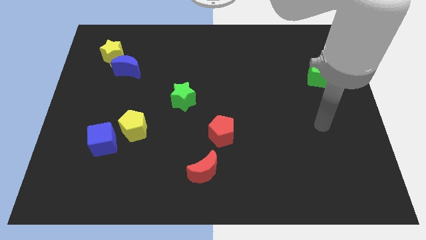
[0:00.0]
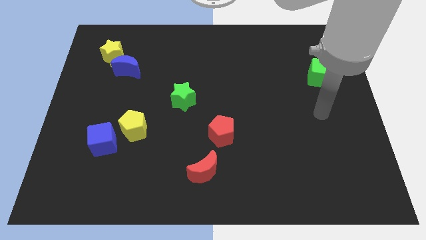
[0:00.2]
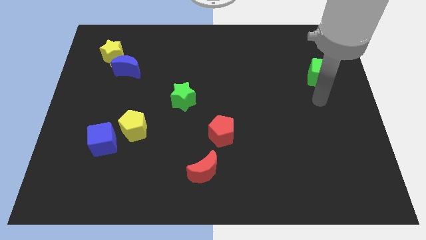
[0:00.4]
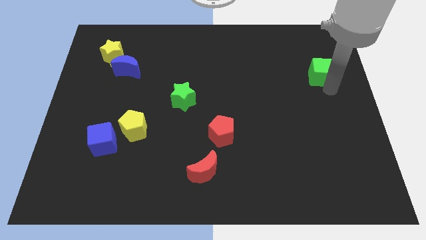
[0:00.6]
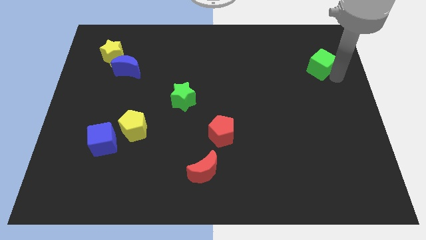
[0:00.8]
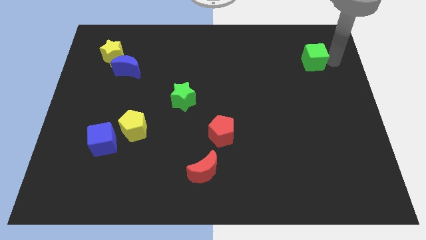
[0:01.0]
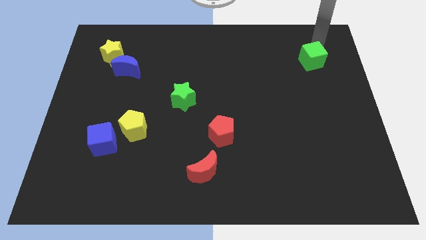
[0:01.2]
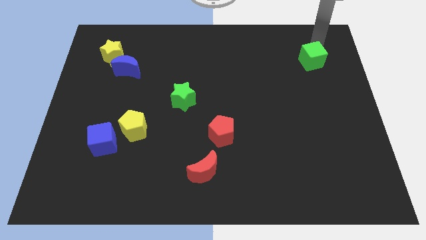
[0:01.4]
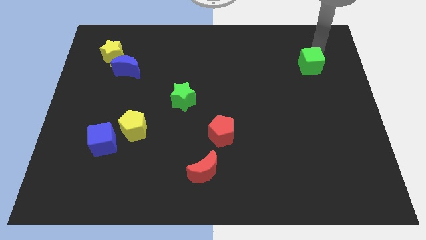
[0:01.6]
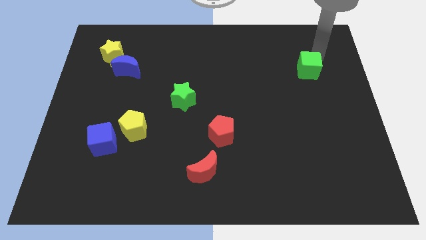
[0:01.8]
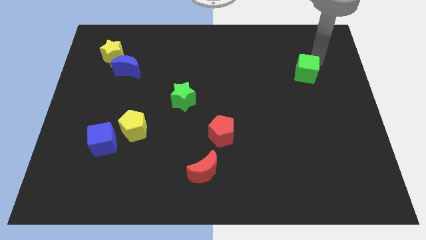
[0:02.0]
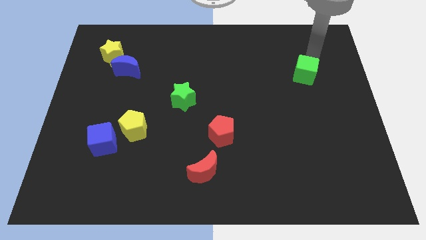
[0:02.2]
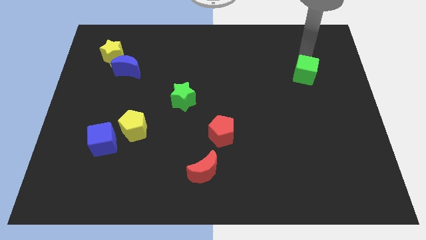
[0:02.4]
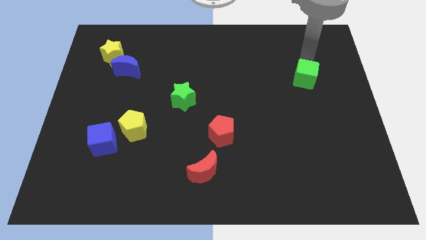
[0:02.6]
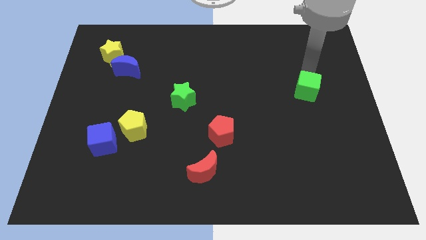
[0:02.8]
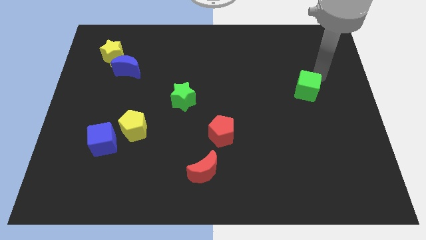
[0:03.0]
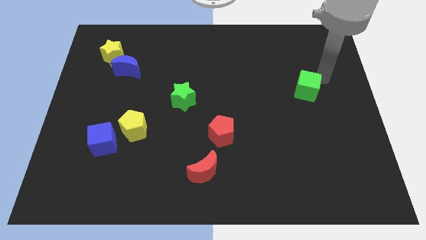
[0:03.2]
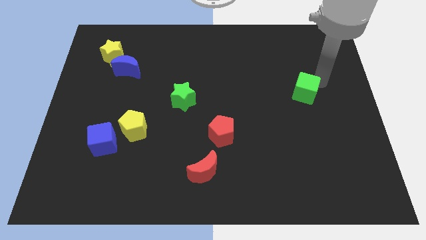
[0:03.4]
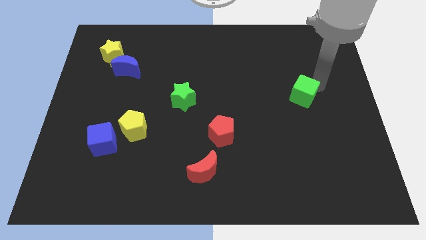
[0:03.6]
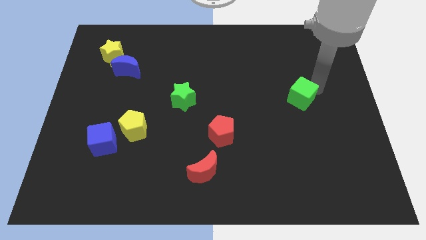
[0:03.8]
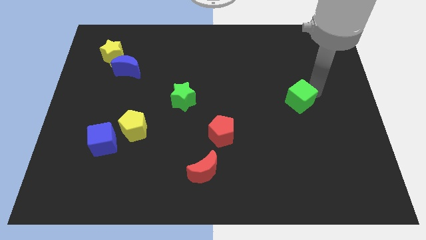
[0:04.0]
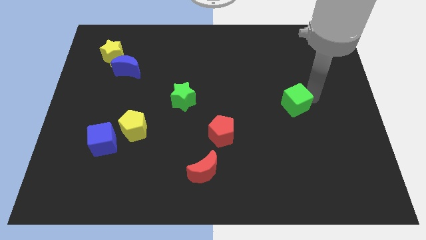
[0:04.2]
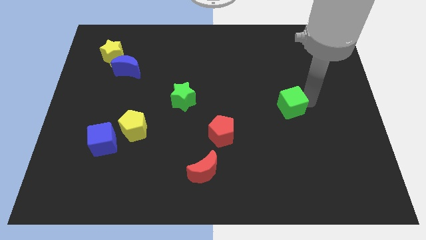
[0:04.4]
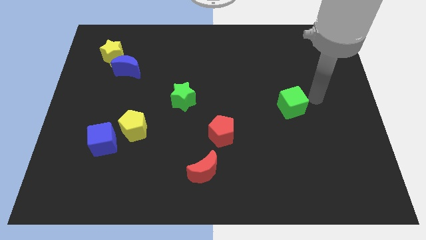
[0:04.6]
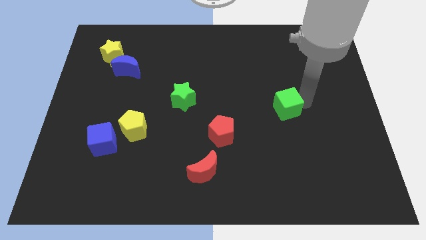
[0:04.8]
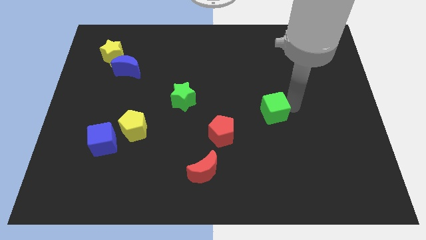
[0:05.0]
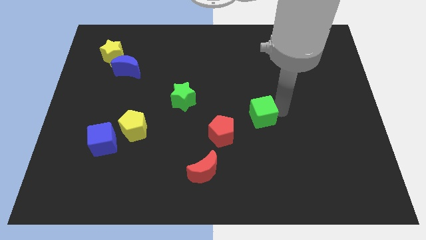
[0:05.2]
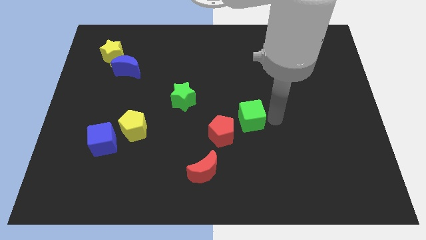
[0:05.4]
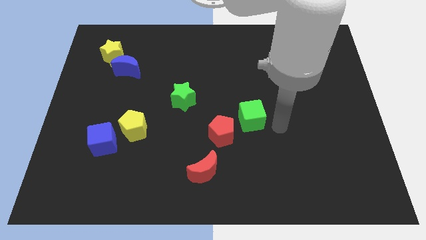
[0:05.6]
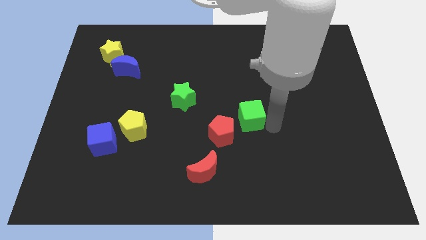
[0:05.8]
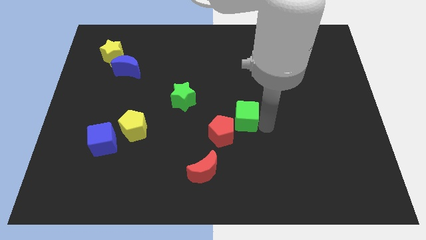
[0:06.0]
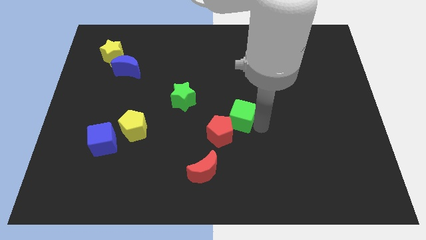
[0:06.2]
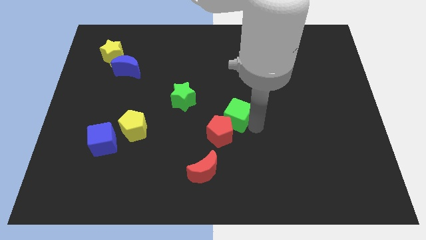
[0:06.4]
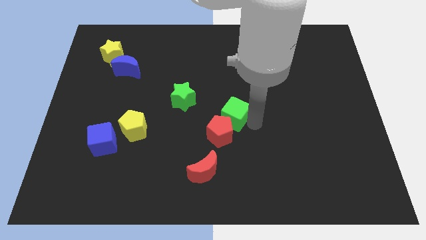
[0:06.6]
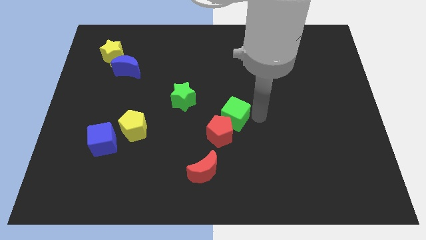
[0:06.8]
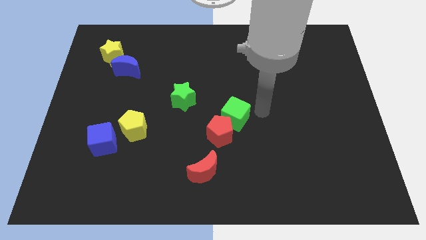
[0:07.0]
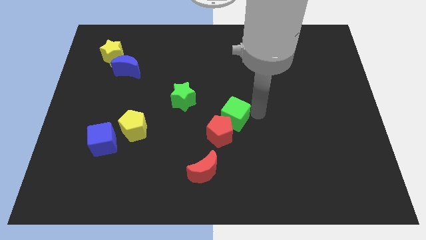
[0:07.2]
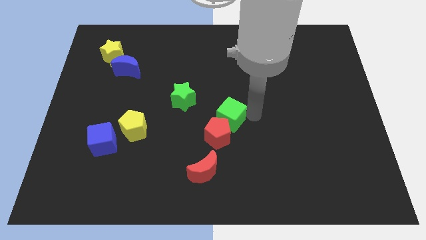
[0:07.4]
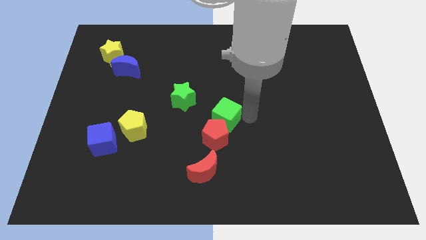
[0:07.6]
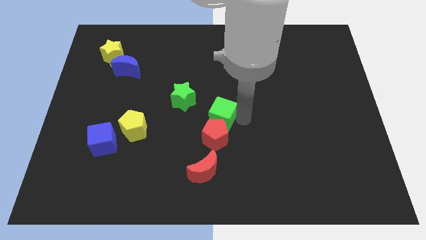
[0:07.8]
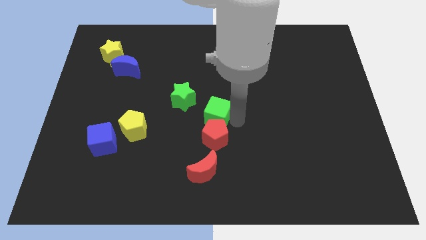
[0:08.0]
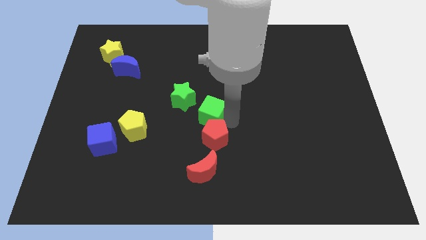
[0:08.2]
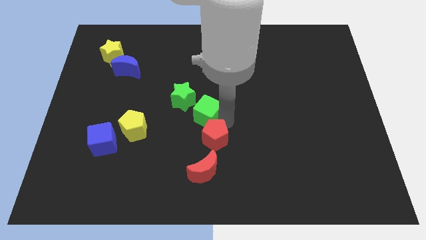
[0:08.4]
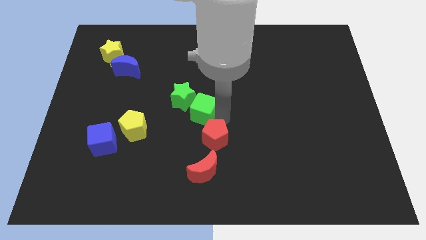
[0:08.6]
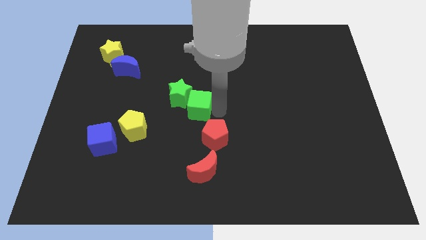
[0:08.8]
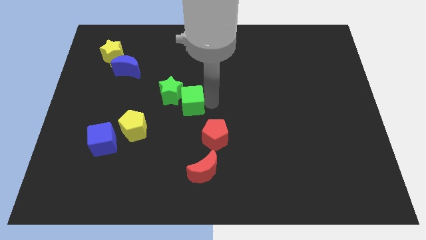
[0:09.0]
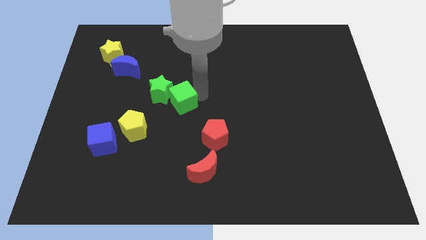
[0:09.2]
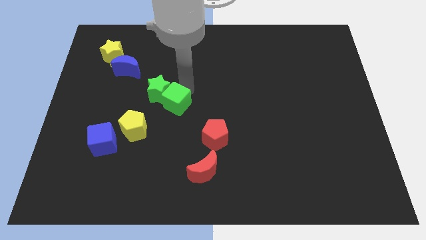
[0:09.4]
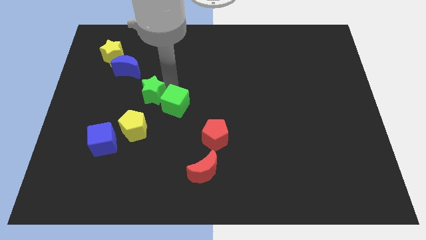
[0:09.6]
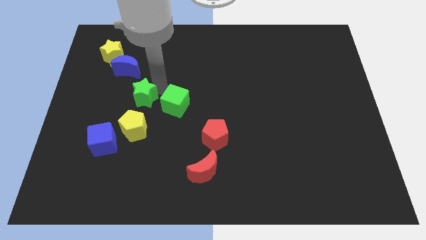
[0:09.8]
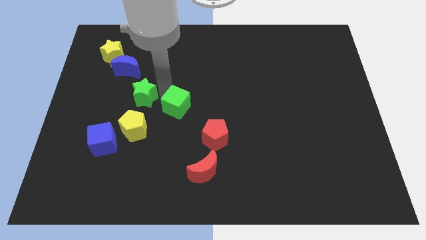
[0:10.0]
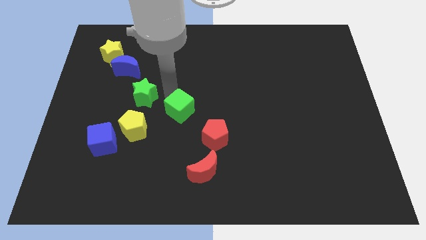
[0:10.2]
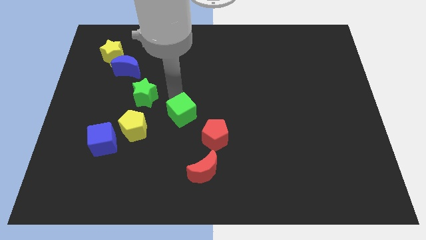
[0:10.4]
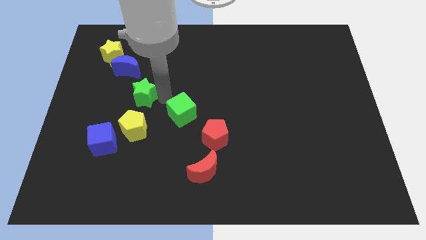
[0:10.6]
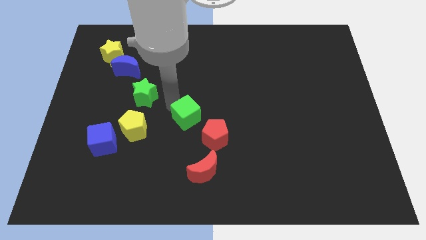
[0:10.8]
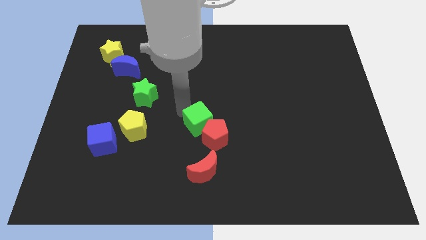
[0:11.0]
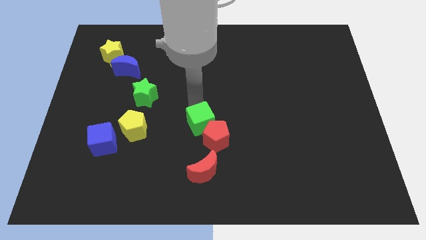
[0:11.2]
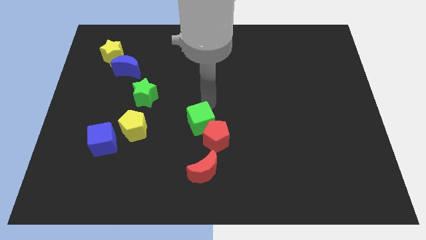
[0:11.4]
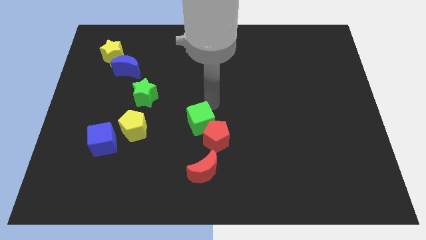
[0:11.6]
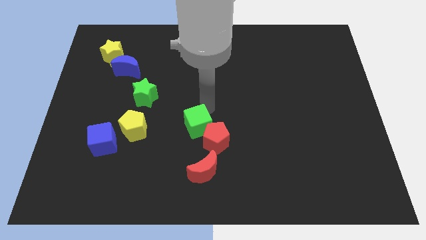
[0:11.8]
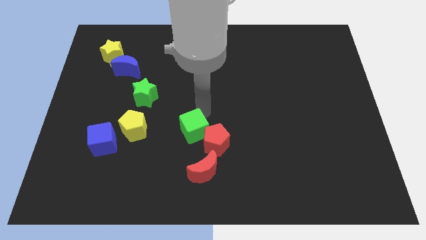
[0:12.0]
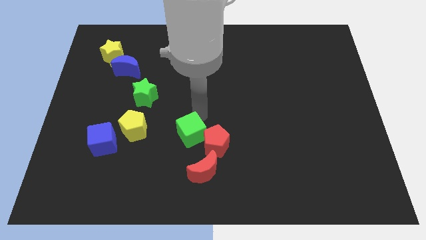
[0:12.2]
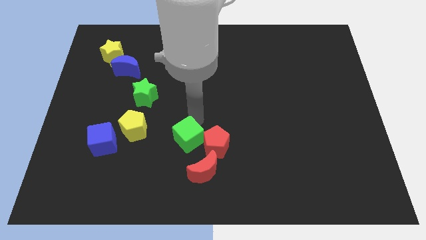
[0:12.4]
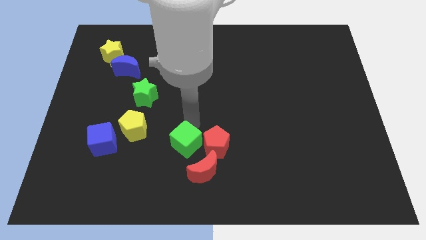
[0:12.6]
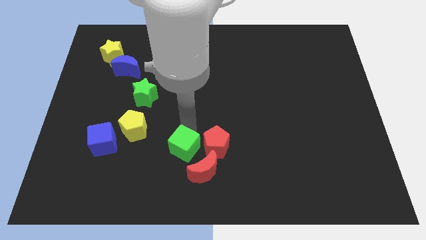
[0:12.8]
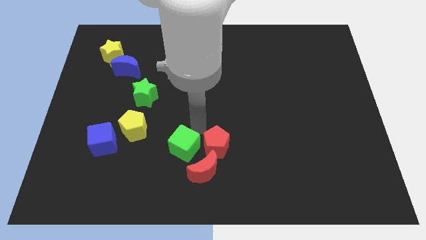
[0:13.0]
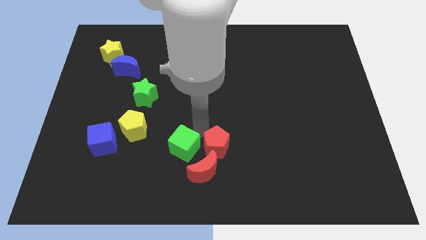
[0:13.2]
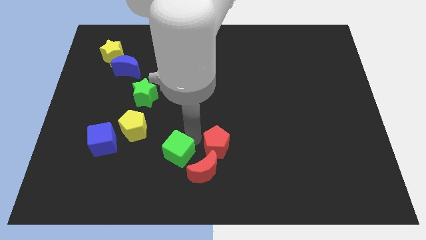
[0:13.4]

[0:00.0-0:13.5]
move the green cube to the left of the red moon

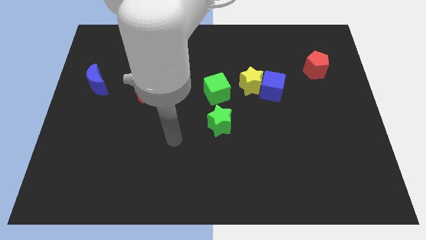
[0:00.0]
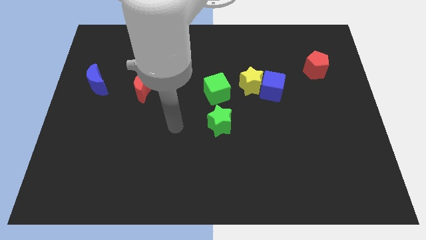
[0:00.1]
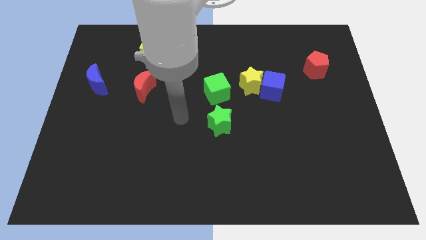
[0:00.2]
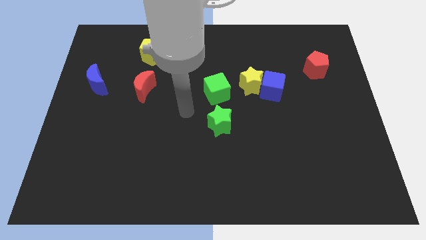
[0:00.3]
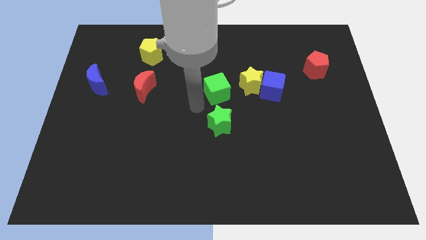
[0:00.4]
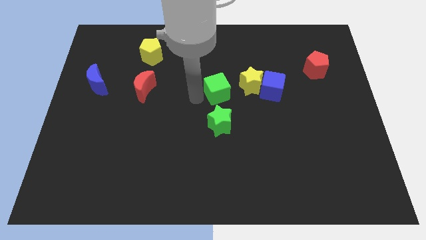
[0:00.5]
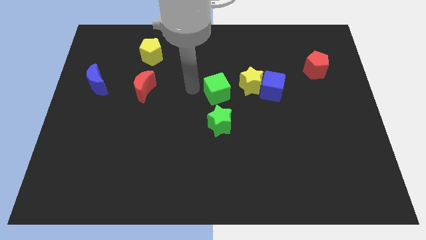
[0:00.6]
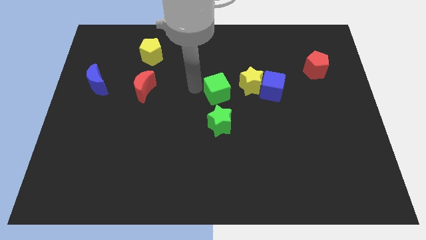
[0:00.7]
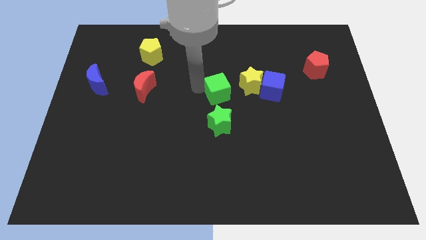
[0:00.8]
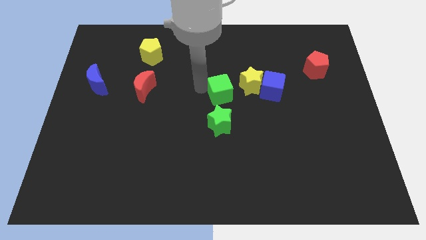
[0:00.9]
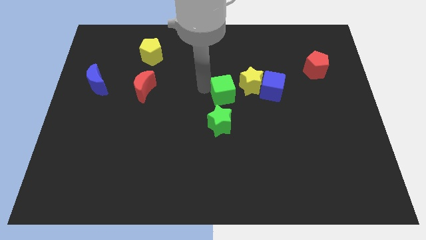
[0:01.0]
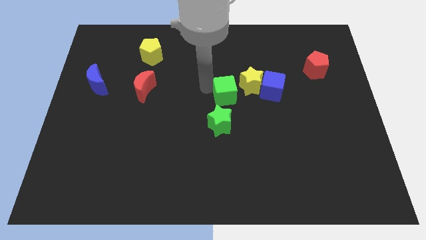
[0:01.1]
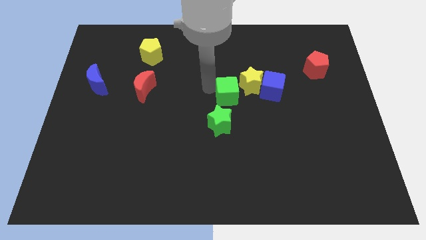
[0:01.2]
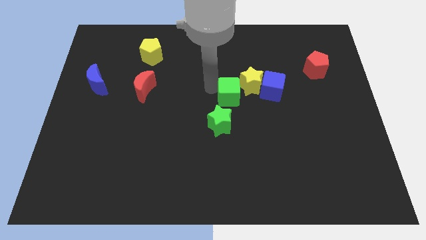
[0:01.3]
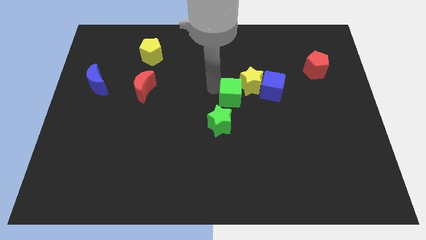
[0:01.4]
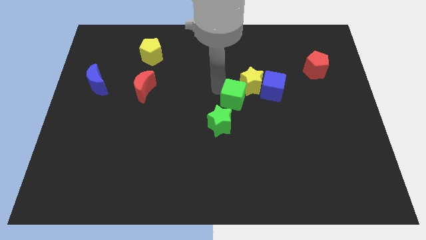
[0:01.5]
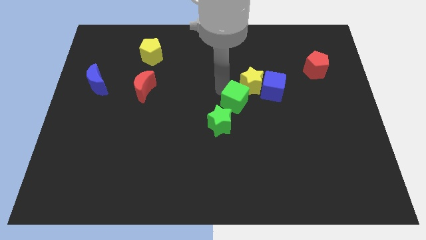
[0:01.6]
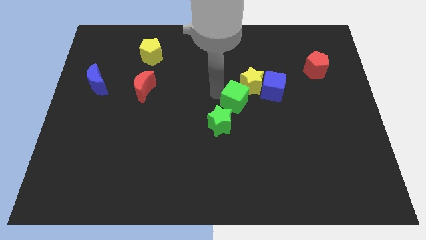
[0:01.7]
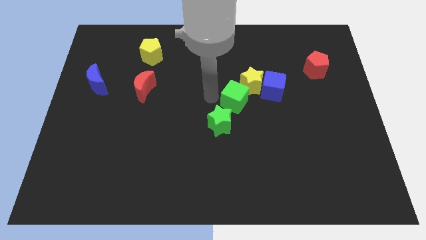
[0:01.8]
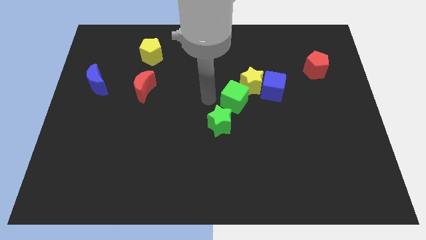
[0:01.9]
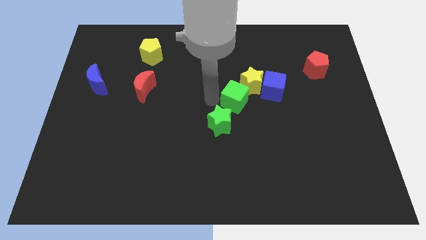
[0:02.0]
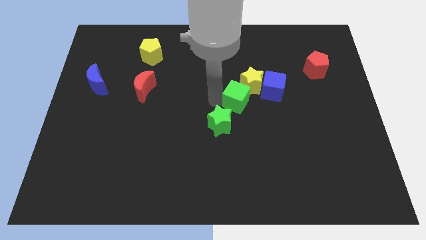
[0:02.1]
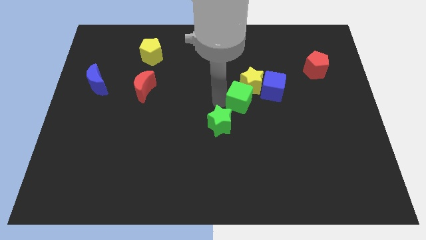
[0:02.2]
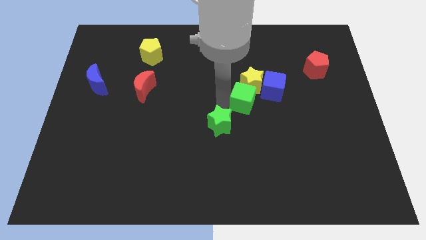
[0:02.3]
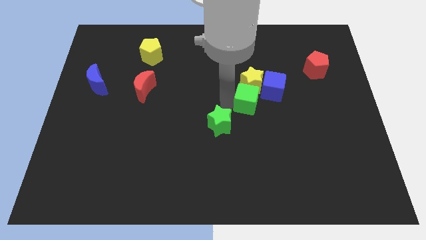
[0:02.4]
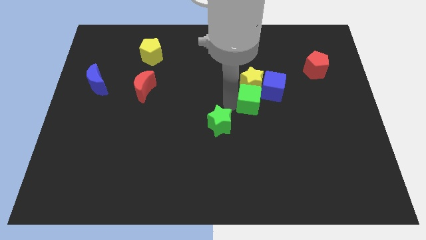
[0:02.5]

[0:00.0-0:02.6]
slide the green cube to the bottom right side of the yellow star
